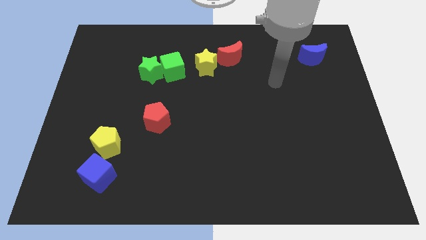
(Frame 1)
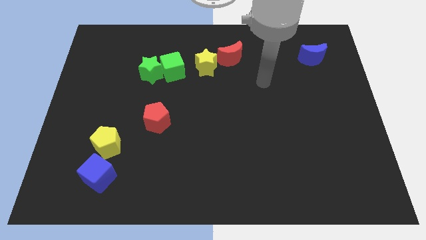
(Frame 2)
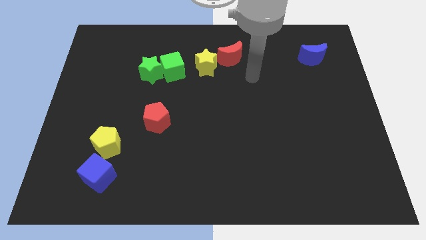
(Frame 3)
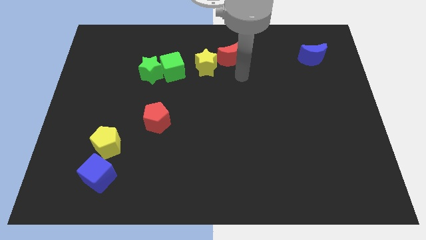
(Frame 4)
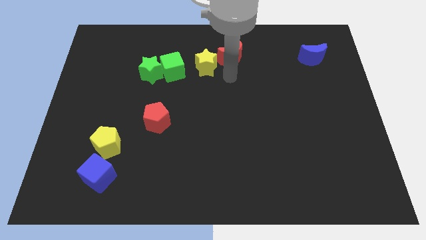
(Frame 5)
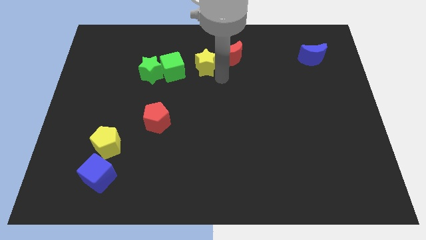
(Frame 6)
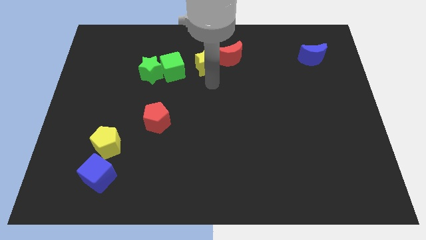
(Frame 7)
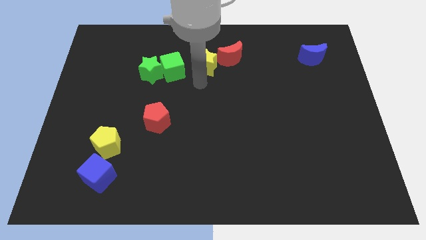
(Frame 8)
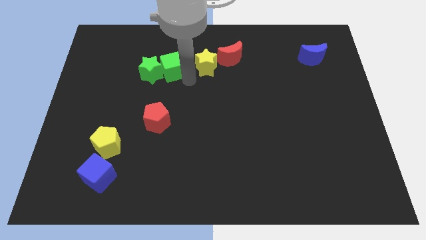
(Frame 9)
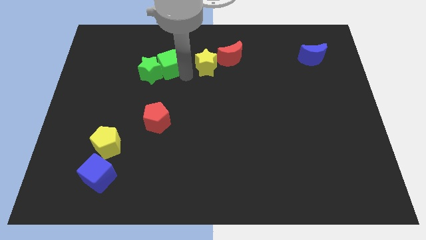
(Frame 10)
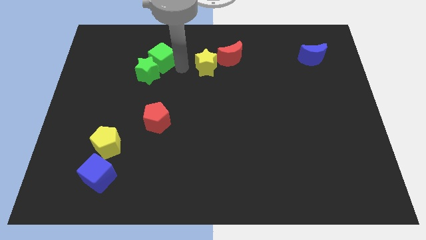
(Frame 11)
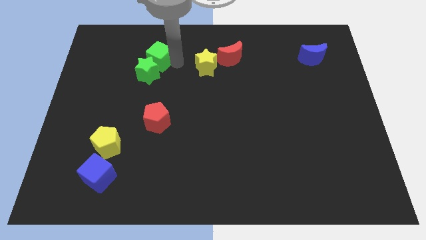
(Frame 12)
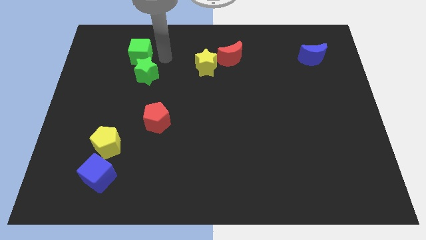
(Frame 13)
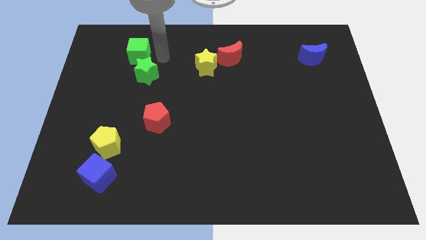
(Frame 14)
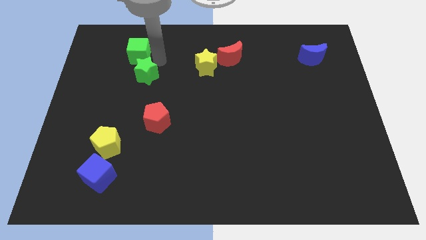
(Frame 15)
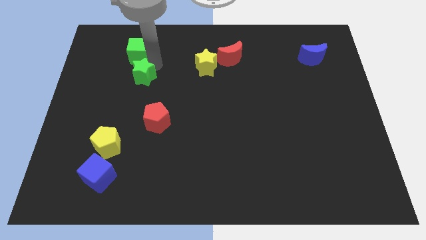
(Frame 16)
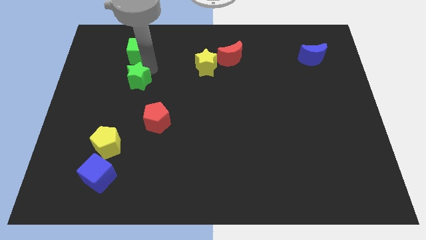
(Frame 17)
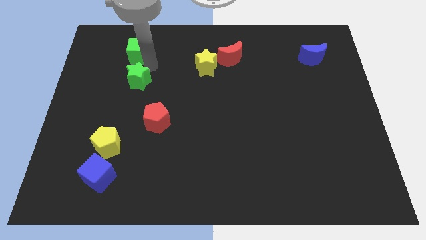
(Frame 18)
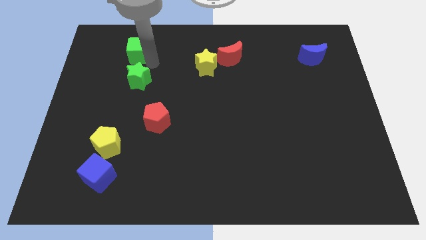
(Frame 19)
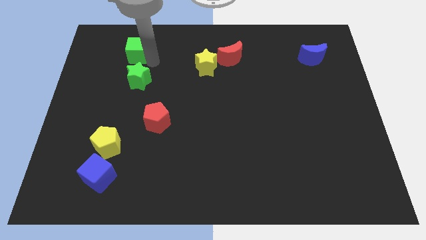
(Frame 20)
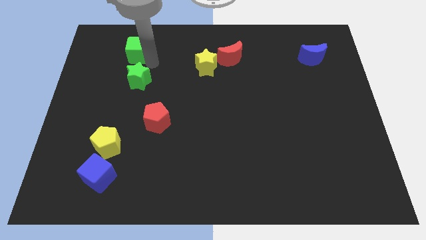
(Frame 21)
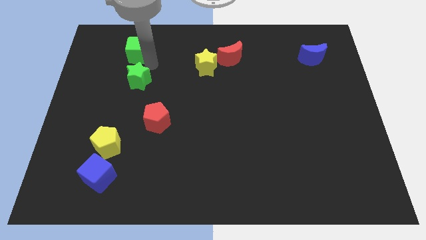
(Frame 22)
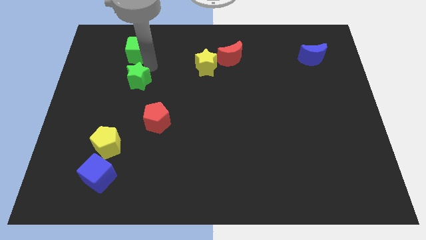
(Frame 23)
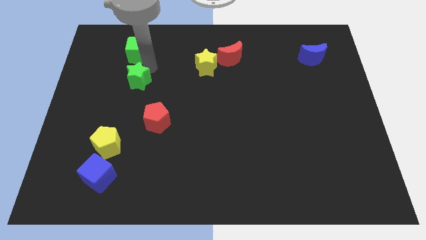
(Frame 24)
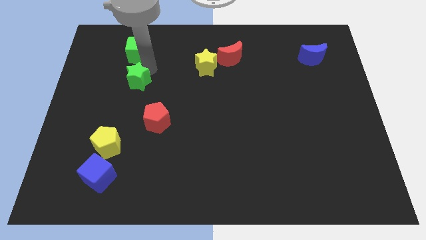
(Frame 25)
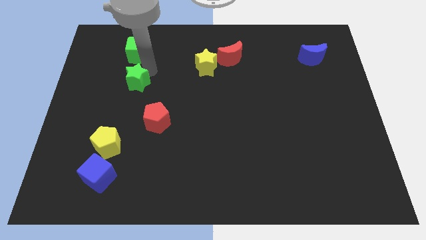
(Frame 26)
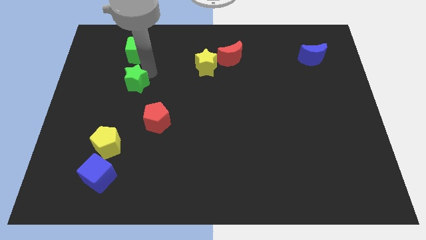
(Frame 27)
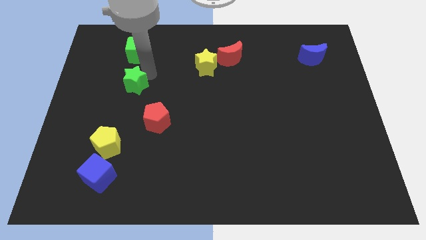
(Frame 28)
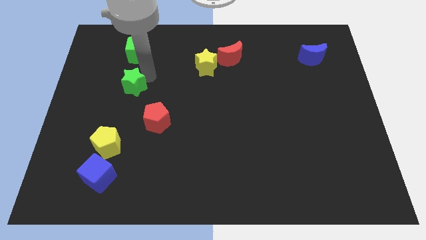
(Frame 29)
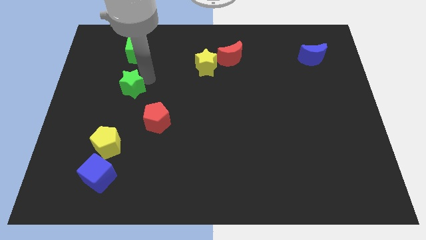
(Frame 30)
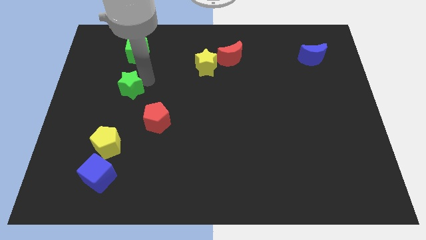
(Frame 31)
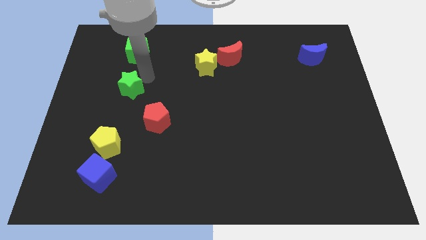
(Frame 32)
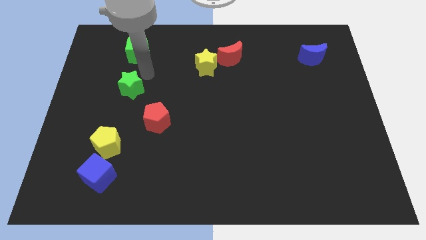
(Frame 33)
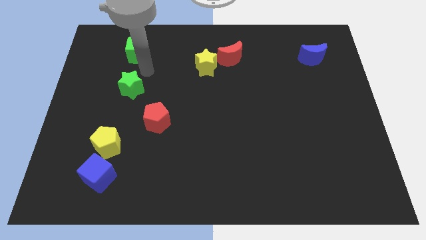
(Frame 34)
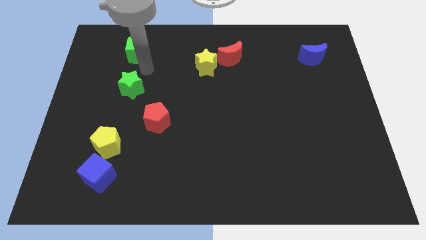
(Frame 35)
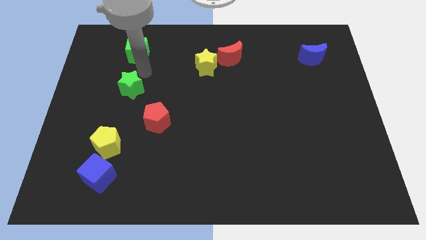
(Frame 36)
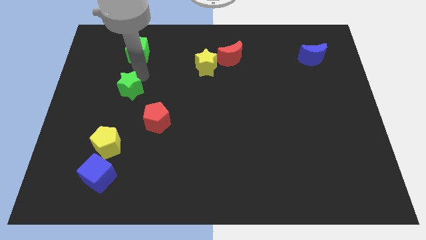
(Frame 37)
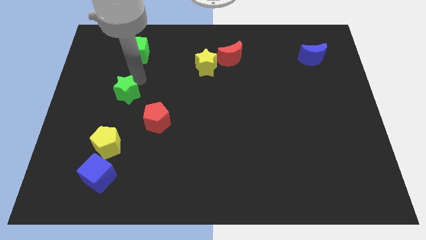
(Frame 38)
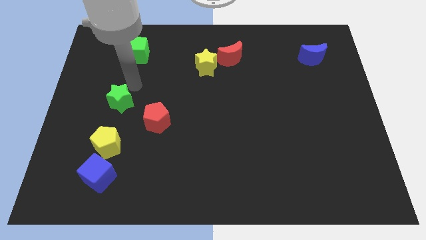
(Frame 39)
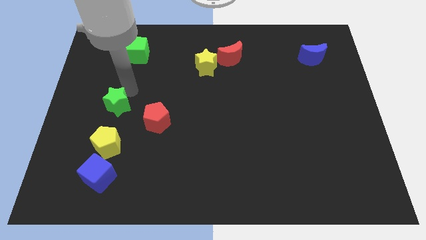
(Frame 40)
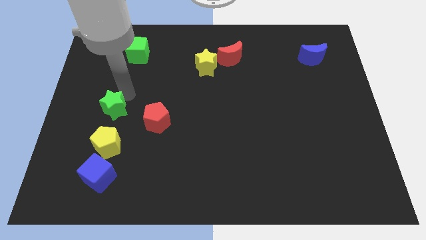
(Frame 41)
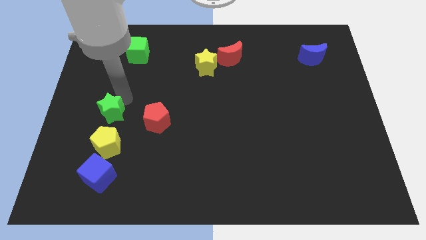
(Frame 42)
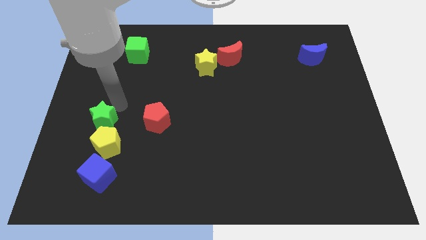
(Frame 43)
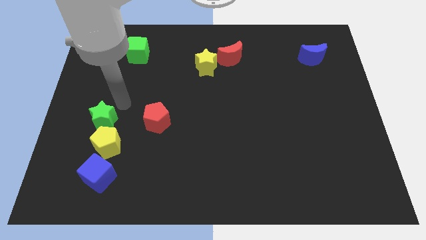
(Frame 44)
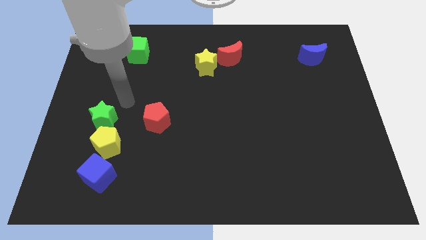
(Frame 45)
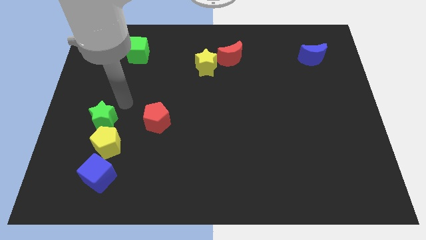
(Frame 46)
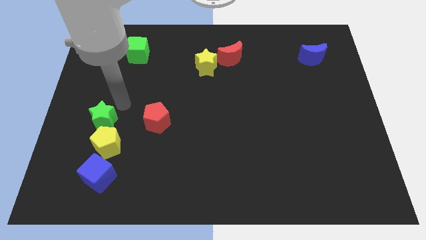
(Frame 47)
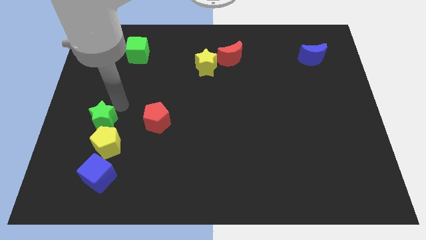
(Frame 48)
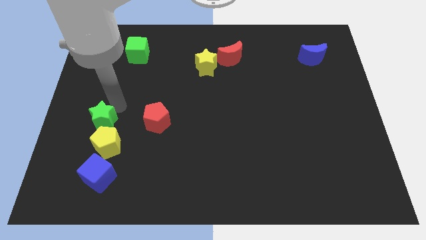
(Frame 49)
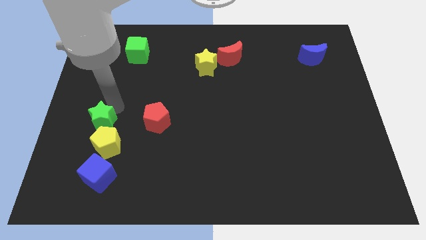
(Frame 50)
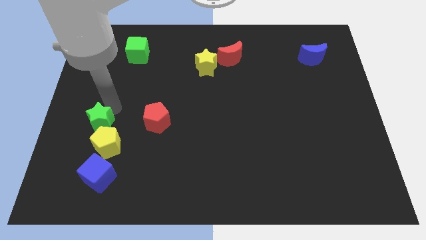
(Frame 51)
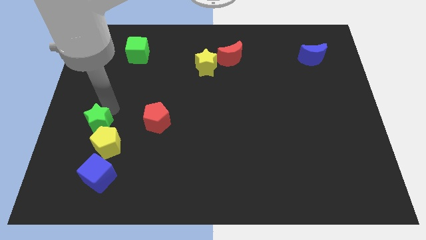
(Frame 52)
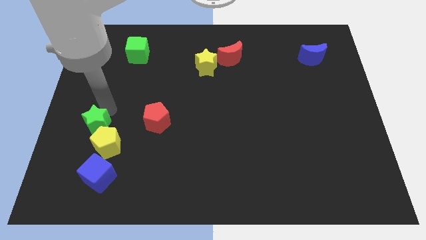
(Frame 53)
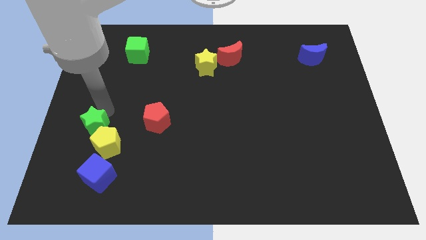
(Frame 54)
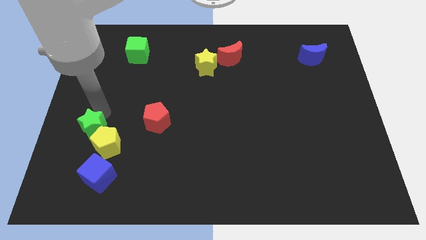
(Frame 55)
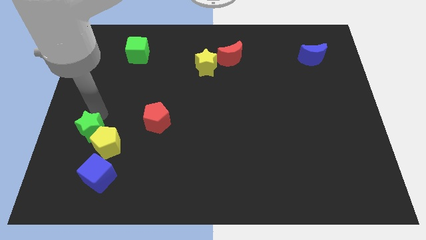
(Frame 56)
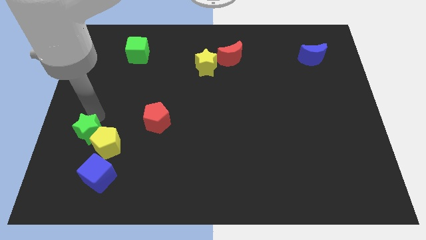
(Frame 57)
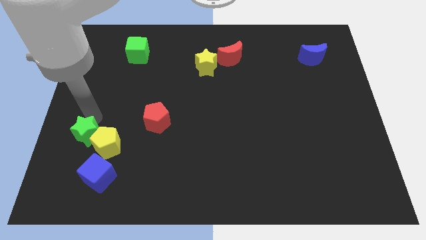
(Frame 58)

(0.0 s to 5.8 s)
put the green star to the top left of the blue cube

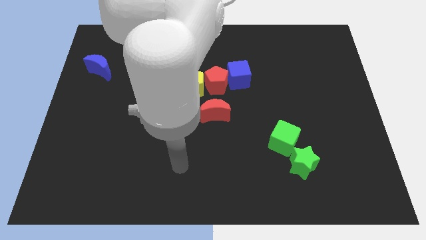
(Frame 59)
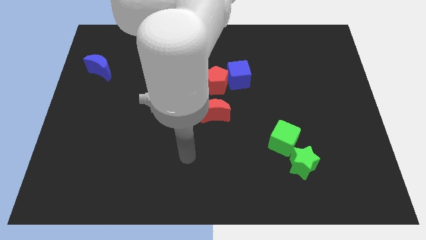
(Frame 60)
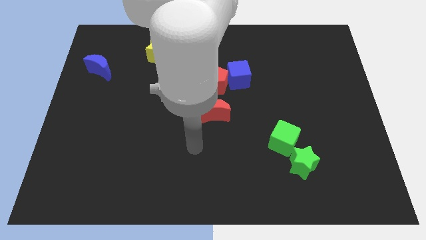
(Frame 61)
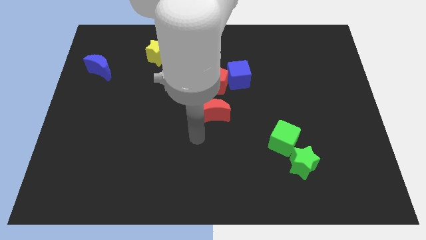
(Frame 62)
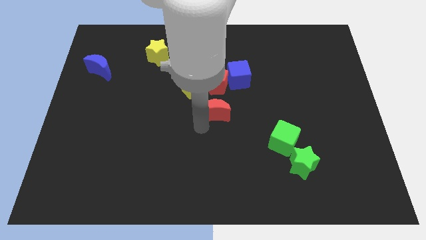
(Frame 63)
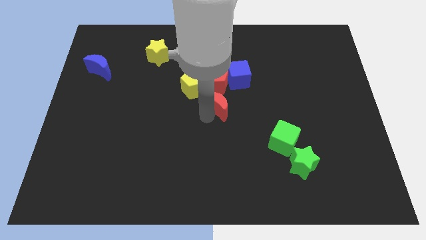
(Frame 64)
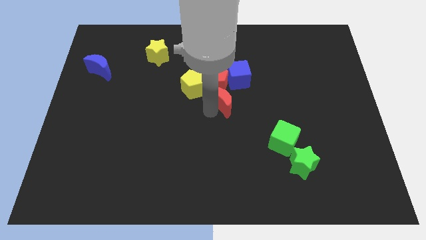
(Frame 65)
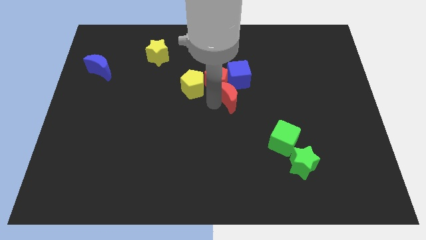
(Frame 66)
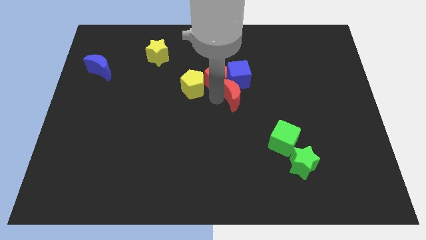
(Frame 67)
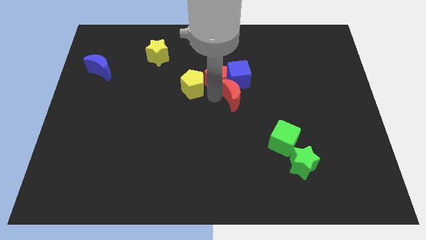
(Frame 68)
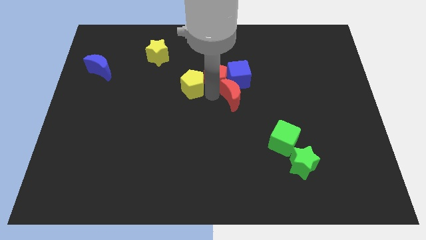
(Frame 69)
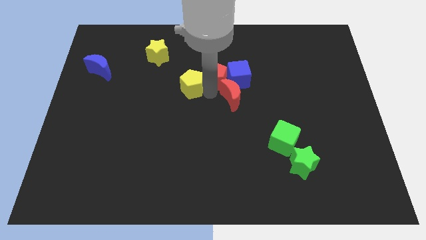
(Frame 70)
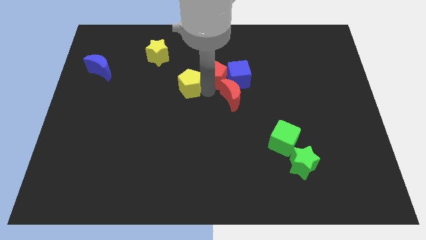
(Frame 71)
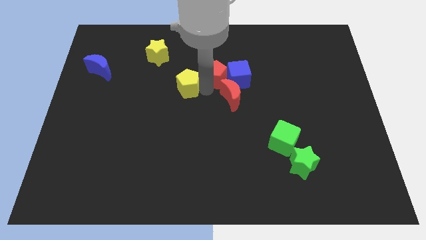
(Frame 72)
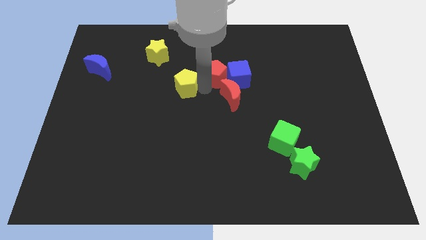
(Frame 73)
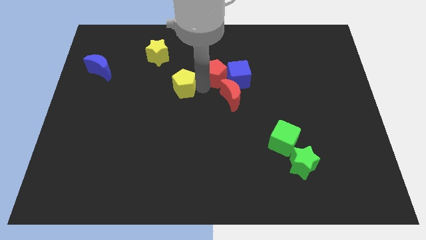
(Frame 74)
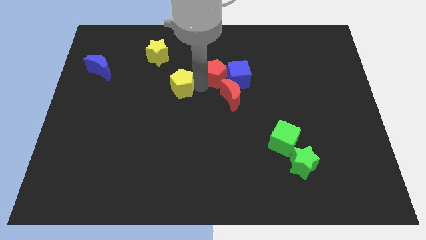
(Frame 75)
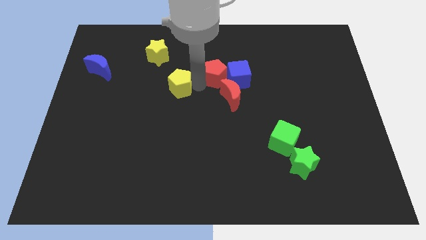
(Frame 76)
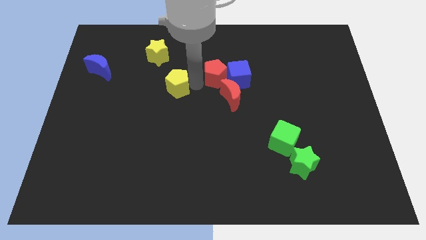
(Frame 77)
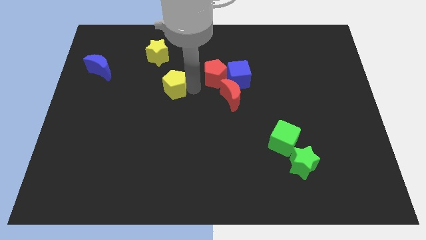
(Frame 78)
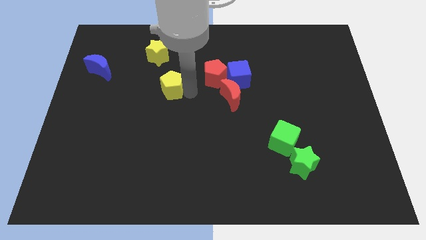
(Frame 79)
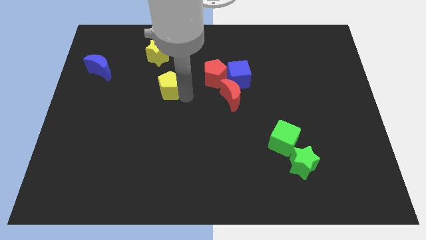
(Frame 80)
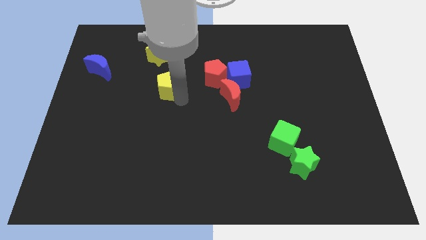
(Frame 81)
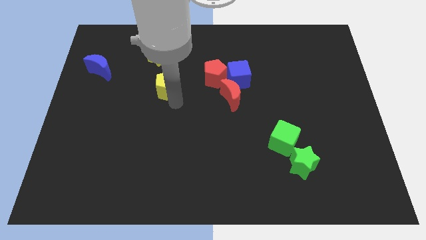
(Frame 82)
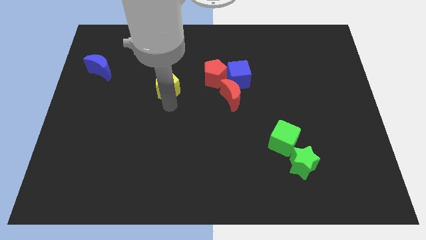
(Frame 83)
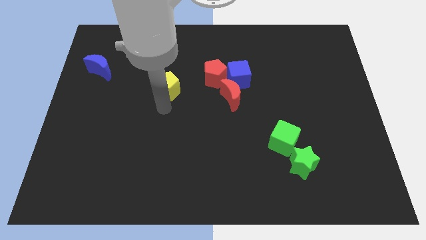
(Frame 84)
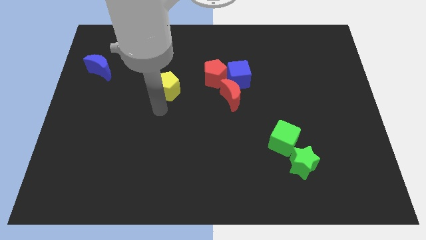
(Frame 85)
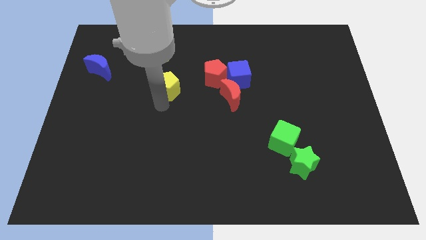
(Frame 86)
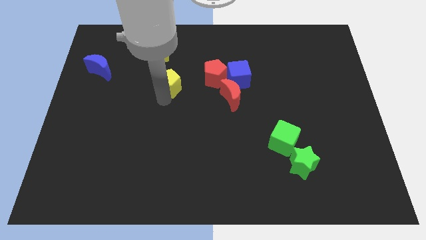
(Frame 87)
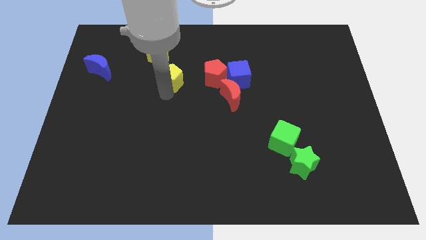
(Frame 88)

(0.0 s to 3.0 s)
put the yellow pentagon to the bottom right side of the yellow star

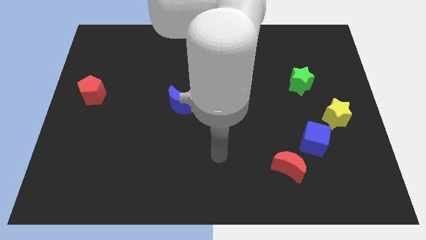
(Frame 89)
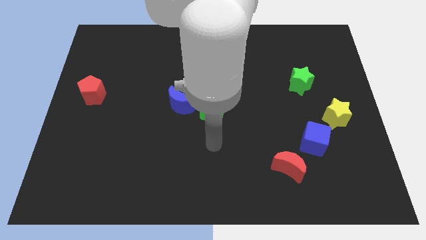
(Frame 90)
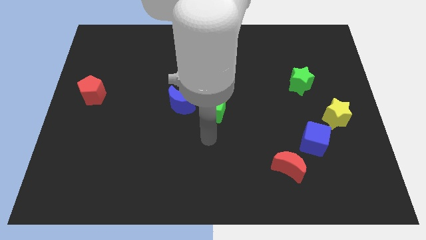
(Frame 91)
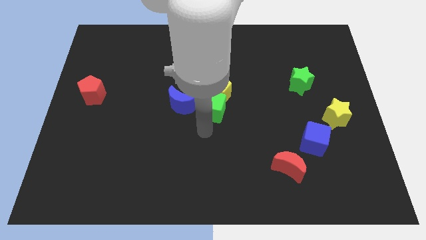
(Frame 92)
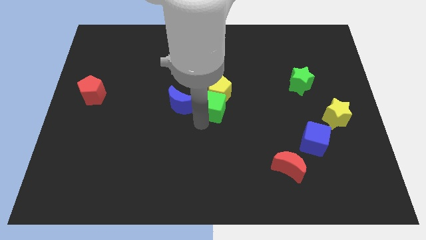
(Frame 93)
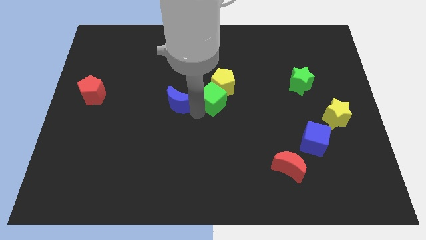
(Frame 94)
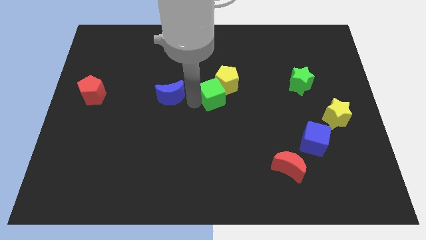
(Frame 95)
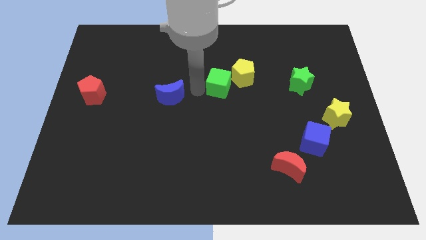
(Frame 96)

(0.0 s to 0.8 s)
slide the yellow pentagon to the left side of the green star
